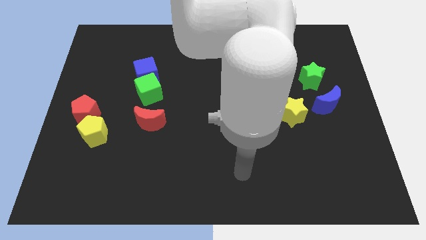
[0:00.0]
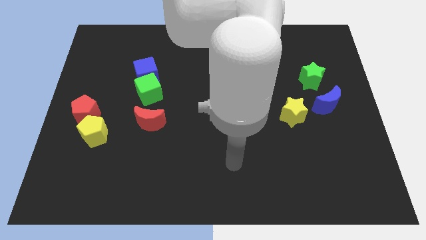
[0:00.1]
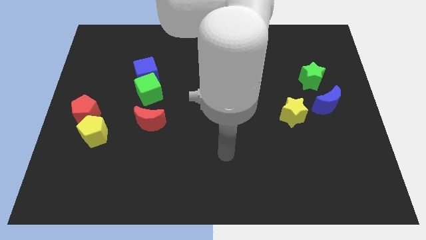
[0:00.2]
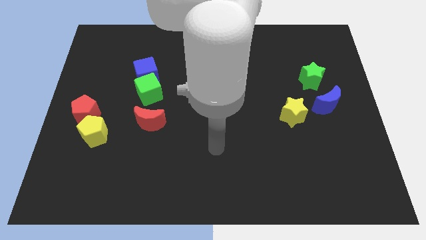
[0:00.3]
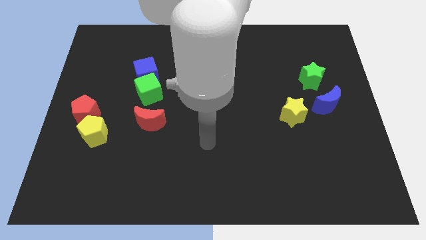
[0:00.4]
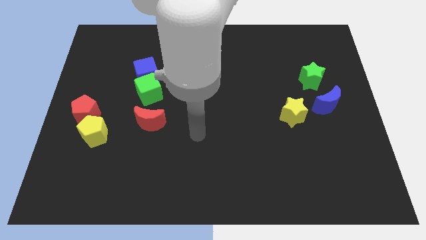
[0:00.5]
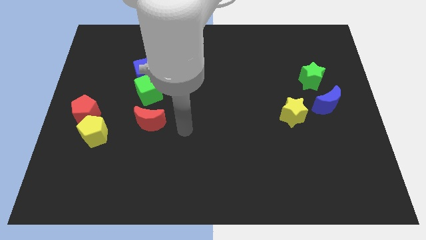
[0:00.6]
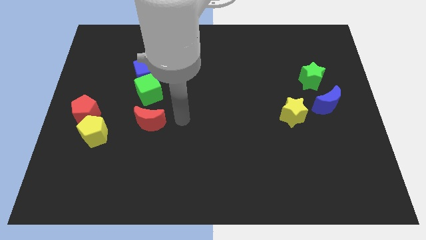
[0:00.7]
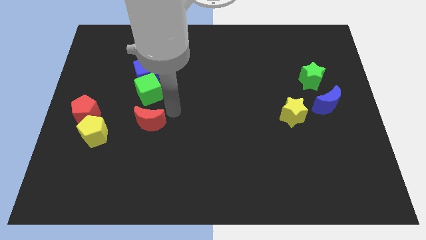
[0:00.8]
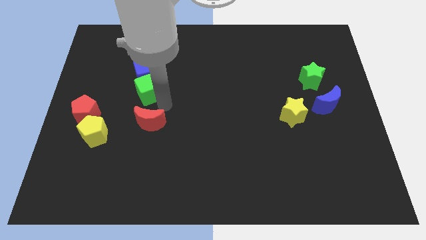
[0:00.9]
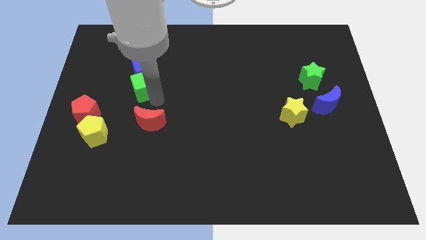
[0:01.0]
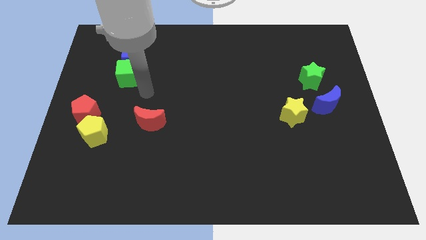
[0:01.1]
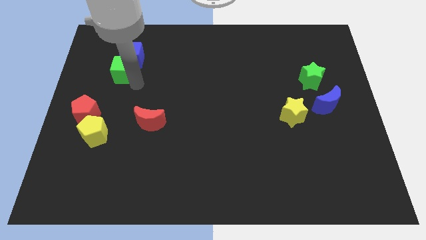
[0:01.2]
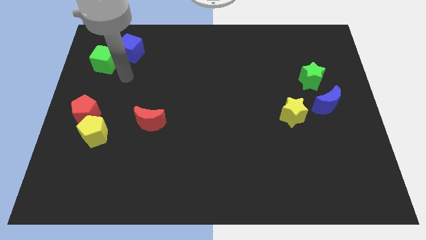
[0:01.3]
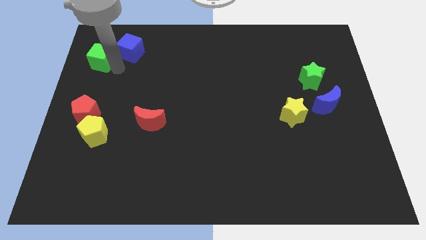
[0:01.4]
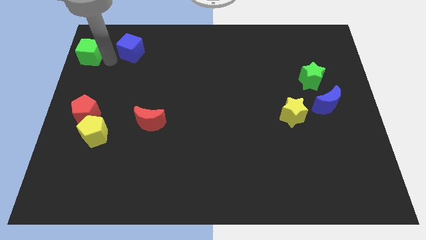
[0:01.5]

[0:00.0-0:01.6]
separate the blue cube from the green cube

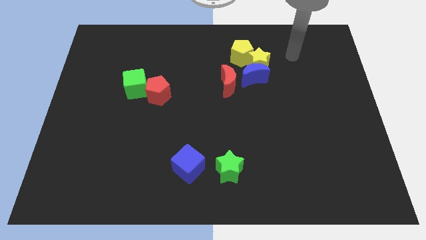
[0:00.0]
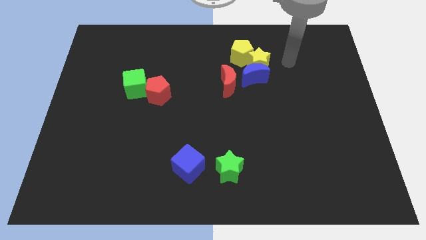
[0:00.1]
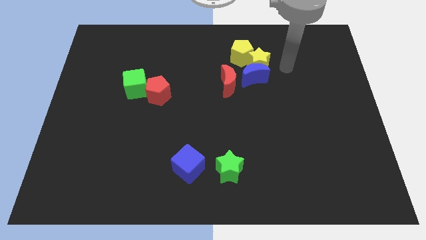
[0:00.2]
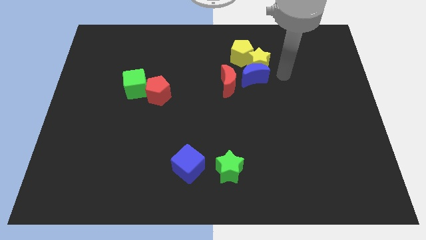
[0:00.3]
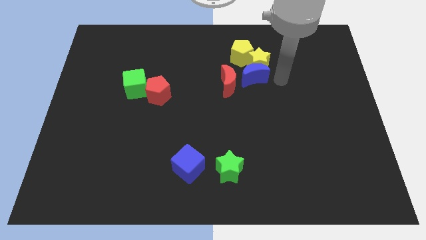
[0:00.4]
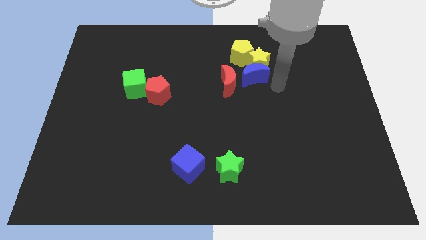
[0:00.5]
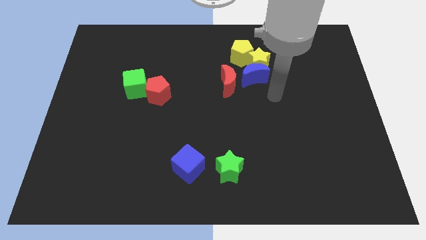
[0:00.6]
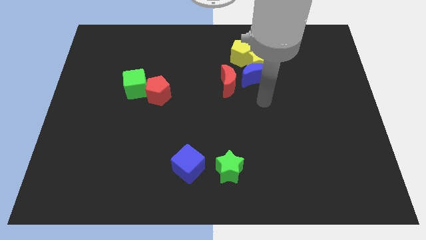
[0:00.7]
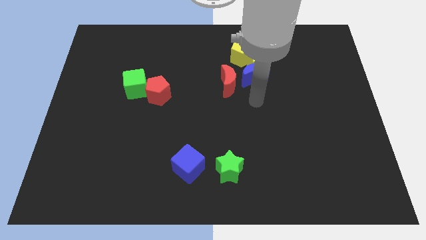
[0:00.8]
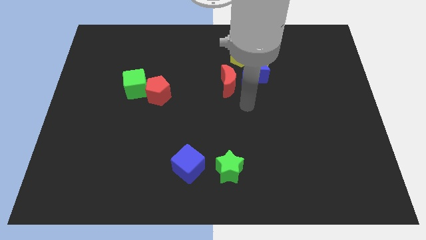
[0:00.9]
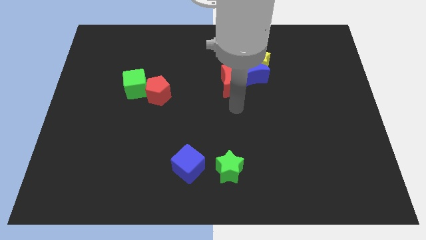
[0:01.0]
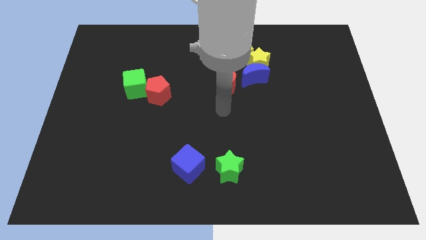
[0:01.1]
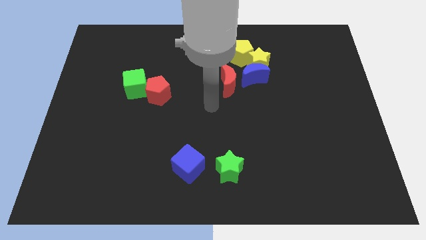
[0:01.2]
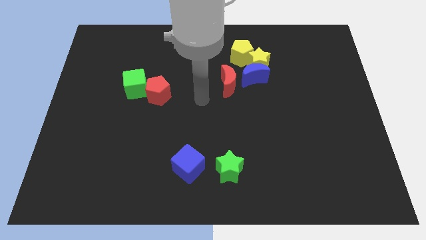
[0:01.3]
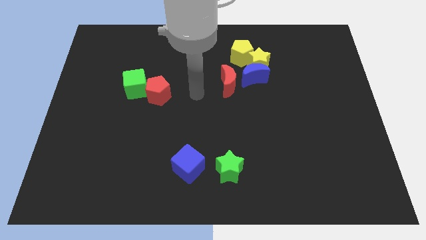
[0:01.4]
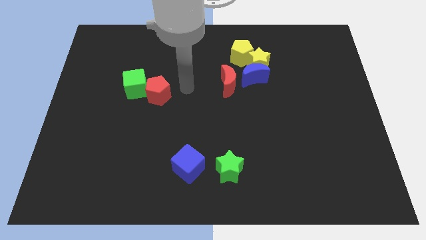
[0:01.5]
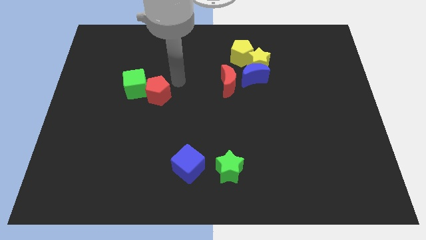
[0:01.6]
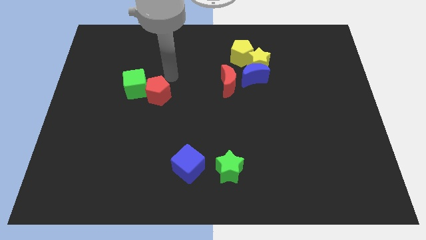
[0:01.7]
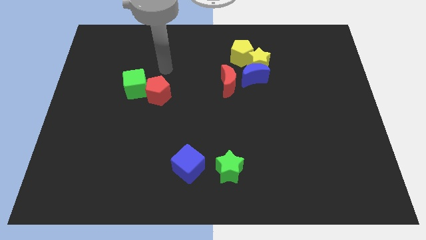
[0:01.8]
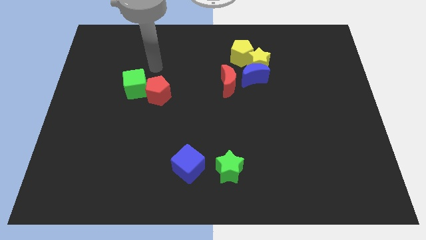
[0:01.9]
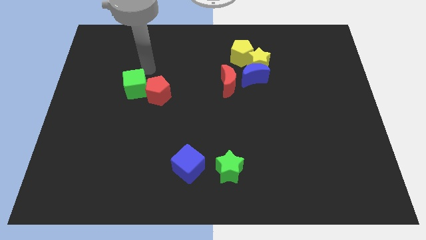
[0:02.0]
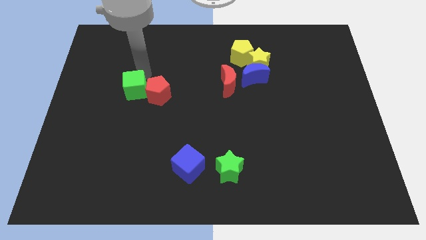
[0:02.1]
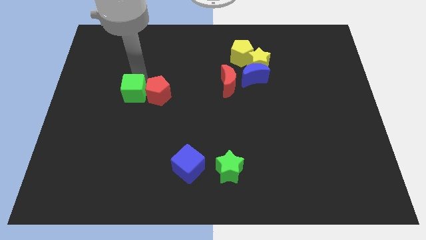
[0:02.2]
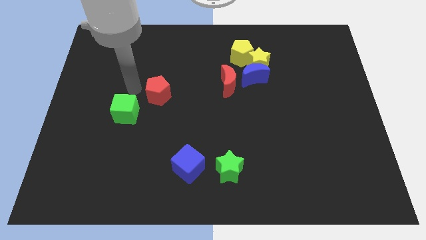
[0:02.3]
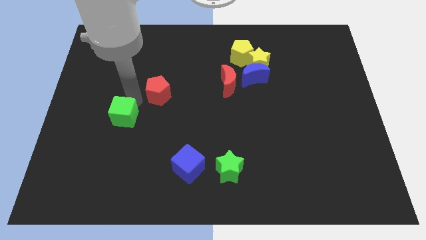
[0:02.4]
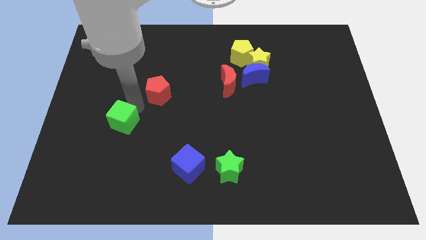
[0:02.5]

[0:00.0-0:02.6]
separate the red pentagon from the green cube

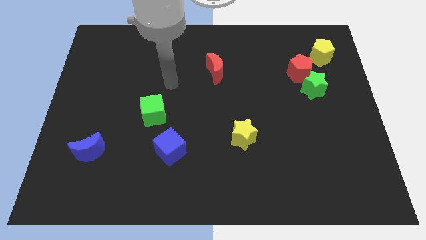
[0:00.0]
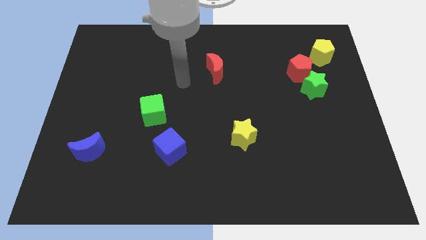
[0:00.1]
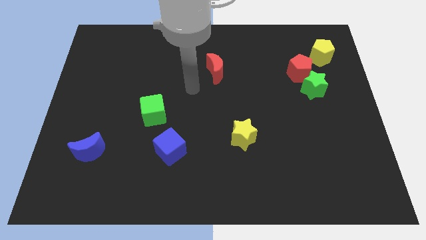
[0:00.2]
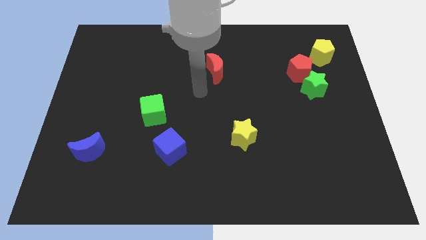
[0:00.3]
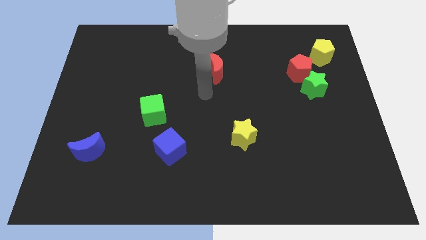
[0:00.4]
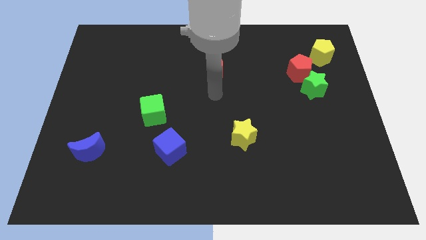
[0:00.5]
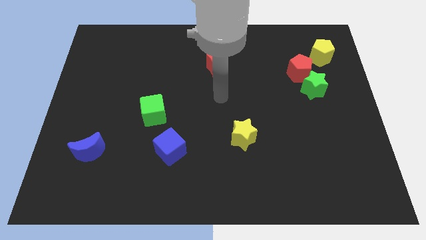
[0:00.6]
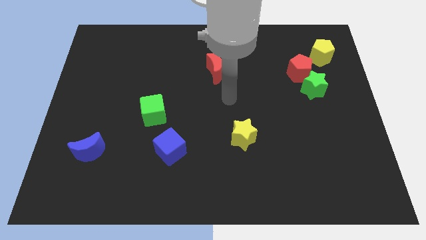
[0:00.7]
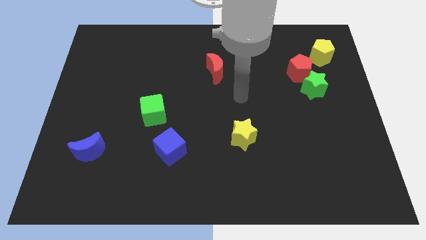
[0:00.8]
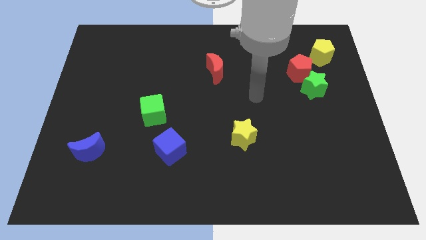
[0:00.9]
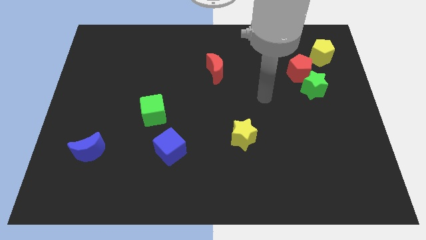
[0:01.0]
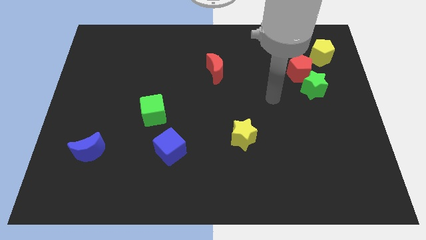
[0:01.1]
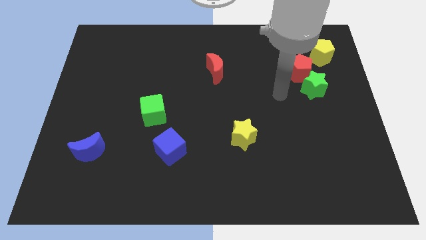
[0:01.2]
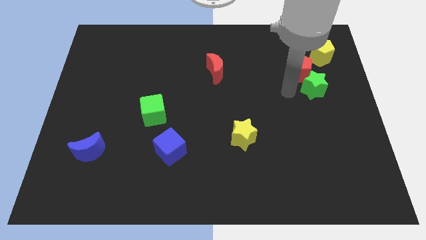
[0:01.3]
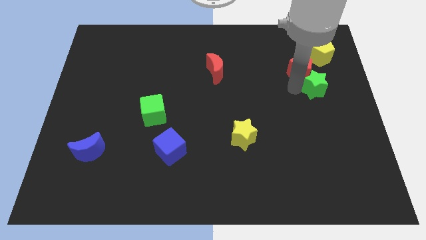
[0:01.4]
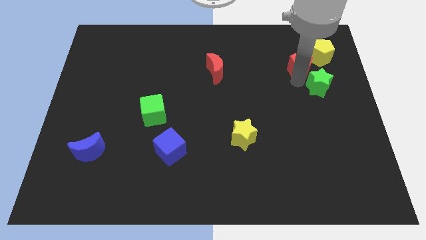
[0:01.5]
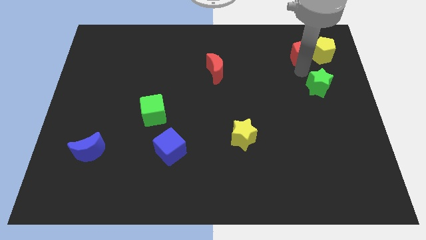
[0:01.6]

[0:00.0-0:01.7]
pull the green star apart from the red pentagon

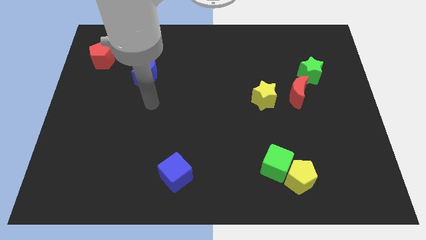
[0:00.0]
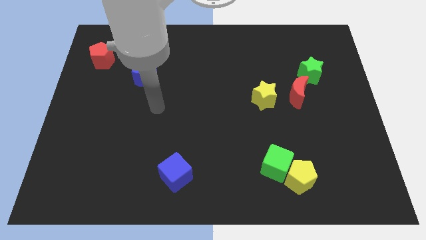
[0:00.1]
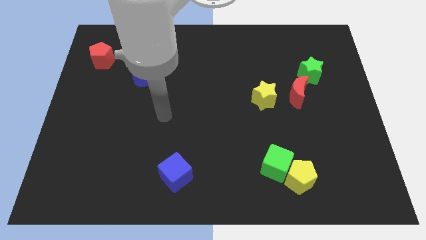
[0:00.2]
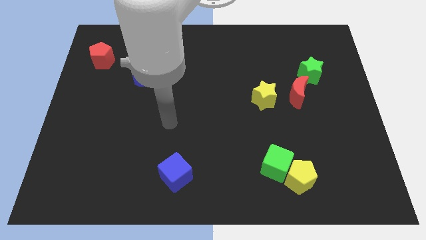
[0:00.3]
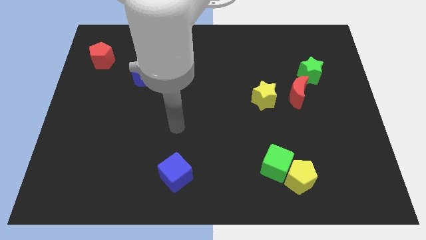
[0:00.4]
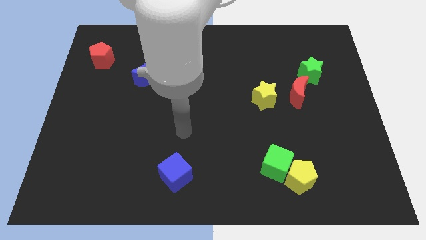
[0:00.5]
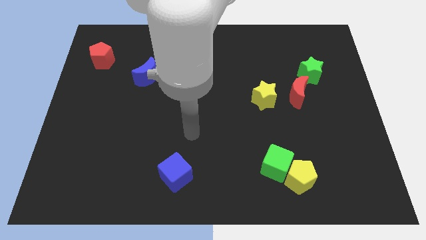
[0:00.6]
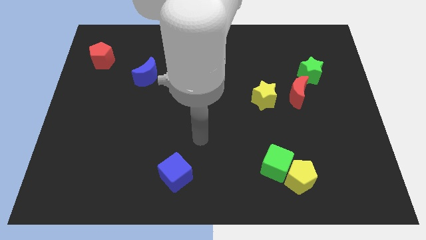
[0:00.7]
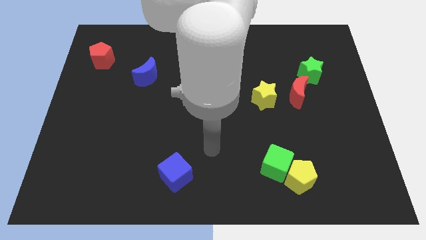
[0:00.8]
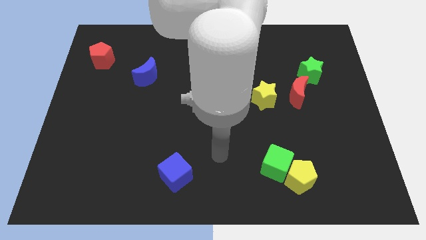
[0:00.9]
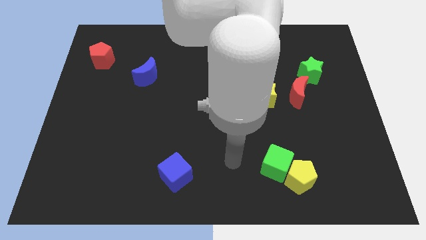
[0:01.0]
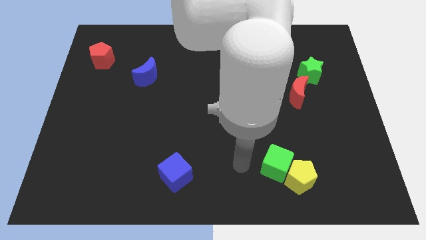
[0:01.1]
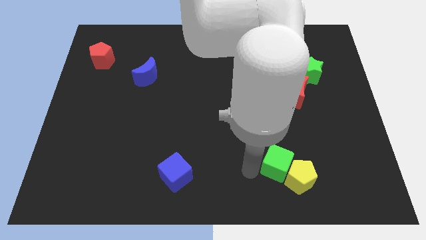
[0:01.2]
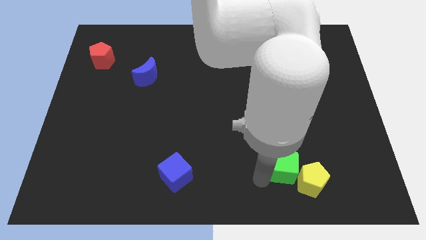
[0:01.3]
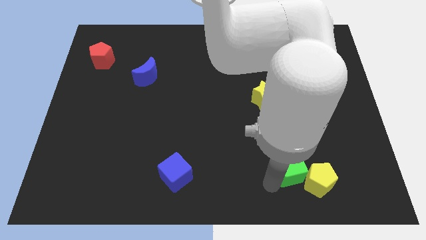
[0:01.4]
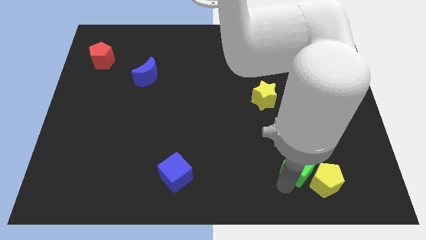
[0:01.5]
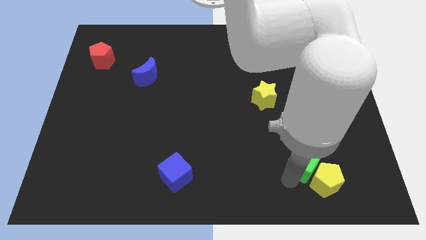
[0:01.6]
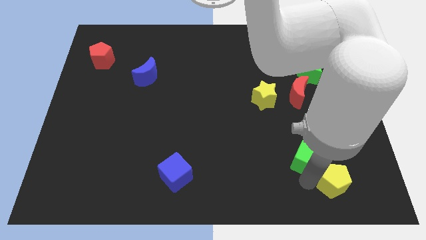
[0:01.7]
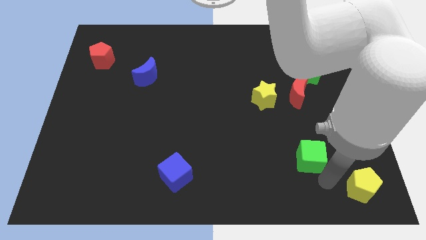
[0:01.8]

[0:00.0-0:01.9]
pull the green cube apart from the yellow pentagon

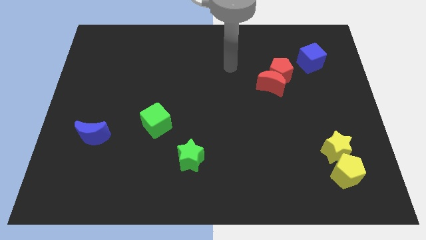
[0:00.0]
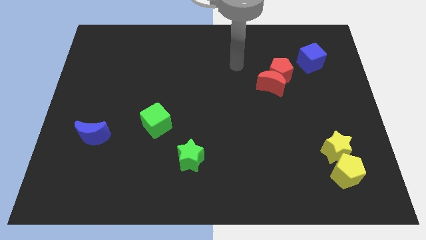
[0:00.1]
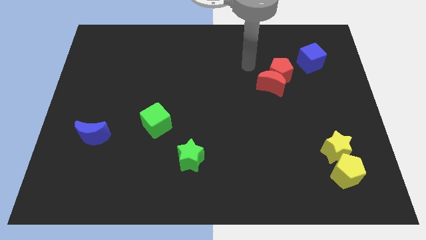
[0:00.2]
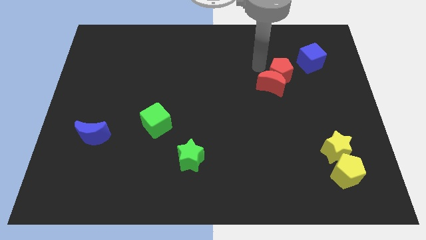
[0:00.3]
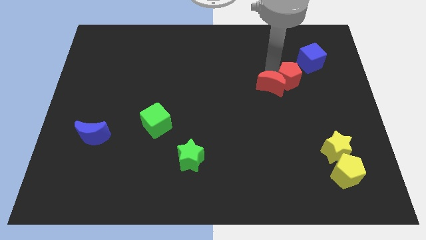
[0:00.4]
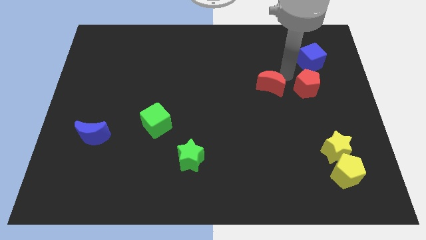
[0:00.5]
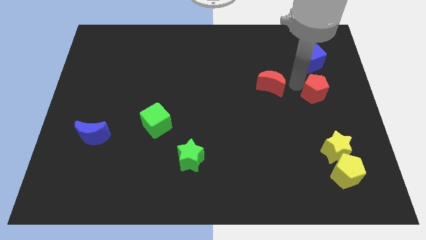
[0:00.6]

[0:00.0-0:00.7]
separate the red moon from the red pentagon

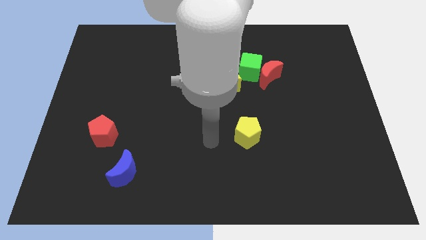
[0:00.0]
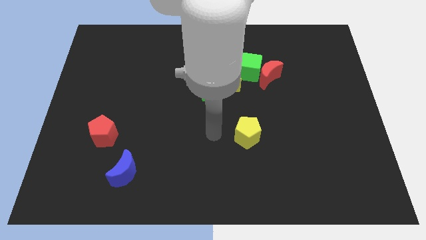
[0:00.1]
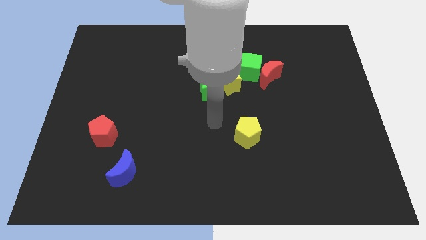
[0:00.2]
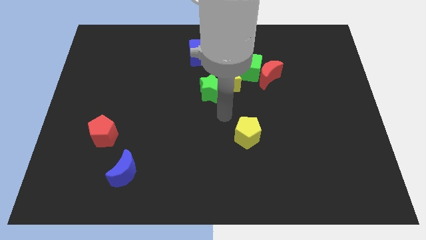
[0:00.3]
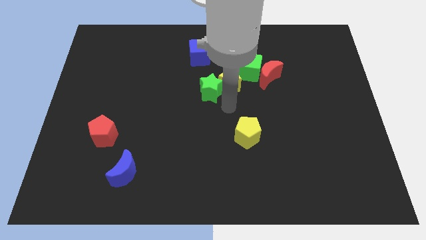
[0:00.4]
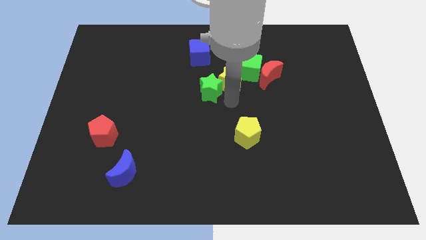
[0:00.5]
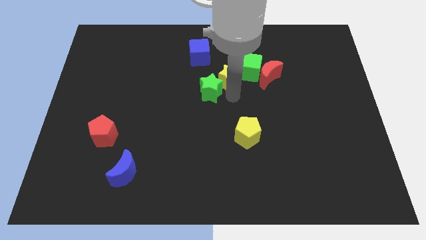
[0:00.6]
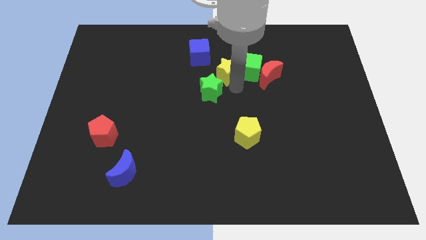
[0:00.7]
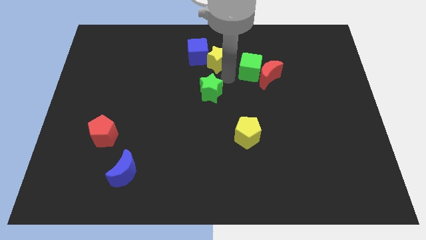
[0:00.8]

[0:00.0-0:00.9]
move the green star away from the yellow star

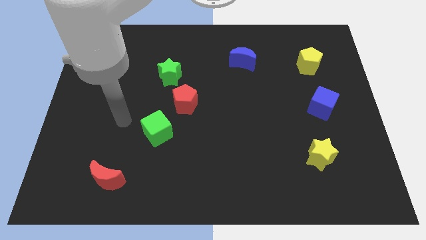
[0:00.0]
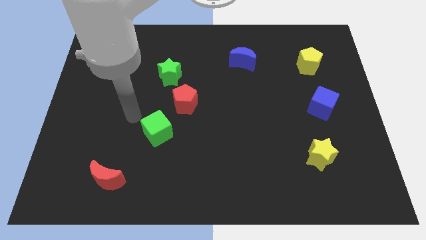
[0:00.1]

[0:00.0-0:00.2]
move the green cube away from the red pentagon
